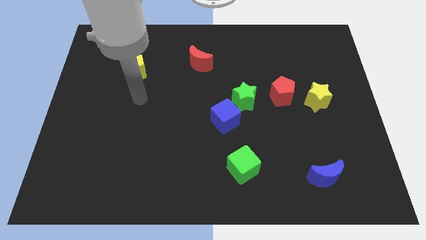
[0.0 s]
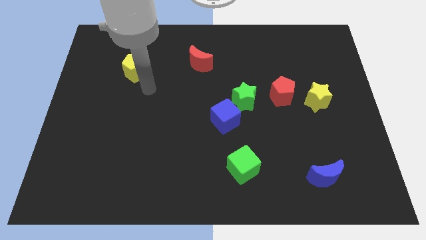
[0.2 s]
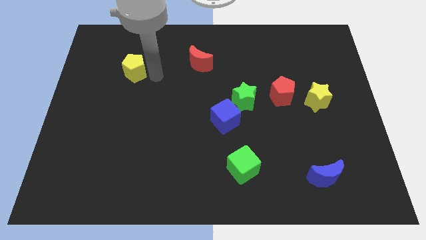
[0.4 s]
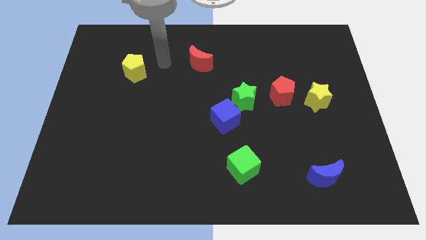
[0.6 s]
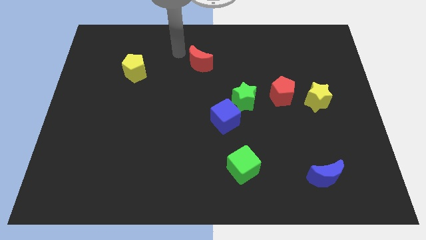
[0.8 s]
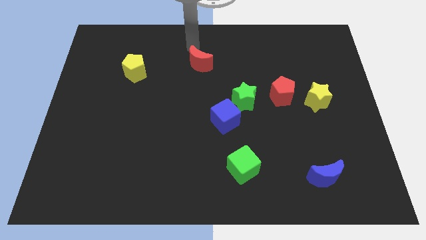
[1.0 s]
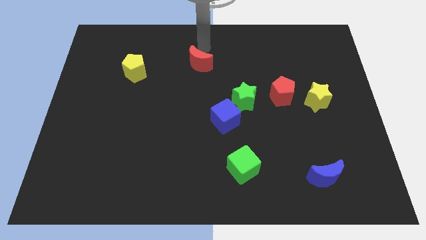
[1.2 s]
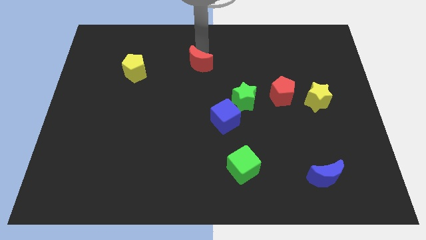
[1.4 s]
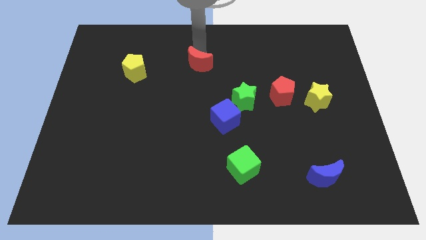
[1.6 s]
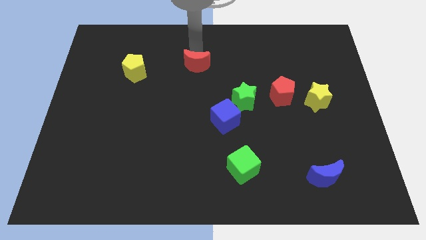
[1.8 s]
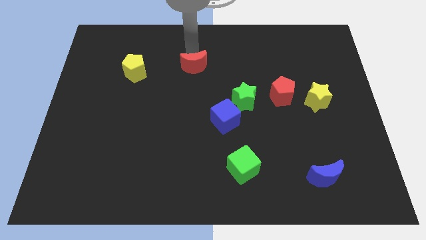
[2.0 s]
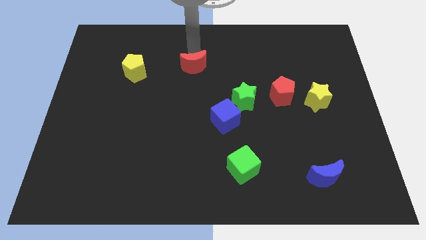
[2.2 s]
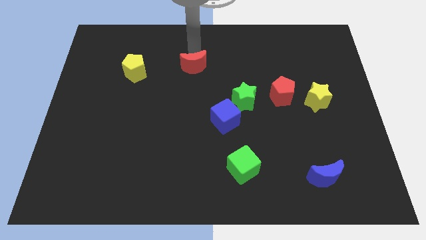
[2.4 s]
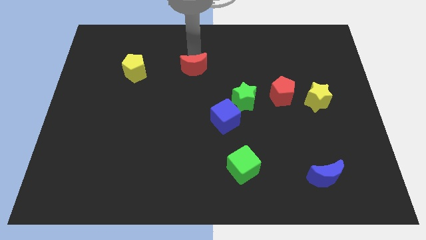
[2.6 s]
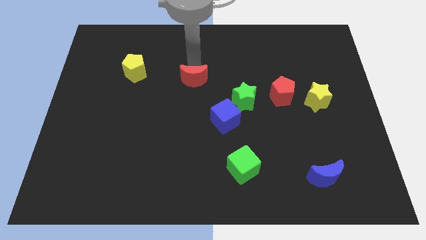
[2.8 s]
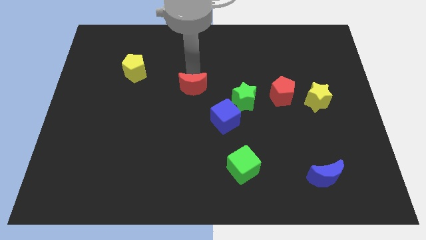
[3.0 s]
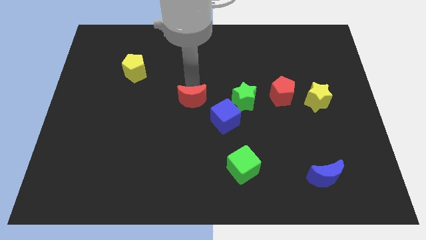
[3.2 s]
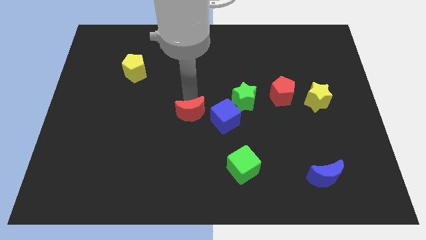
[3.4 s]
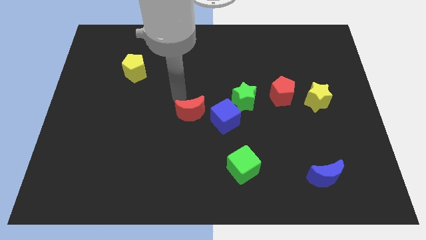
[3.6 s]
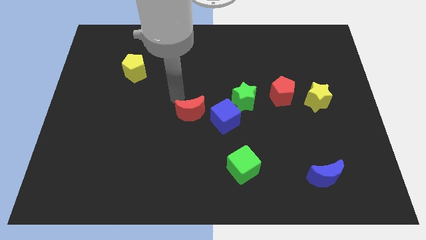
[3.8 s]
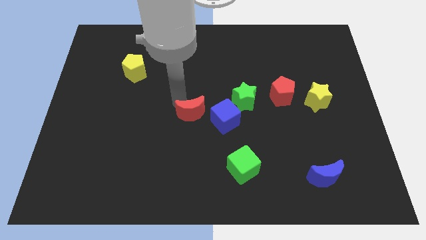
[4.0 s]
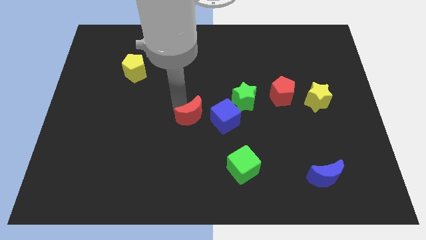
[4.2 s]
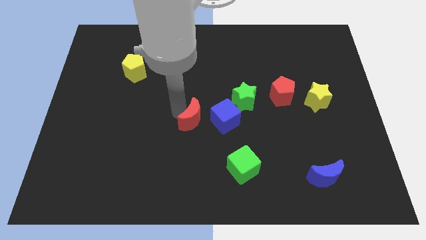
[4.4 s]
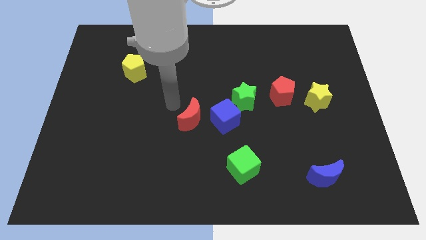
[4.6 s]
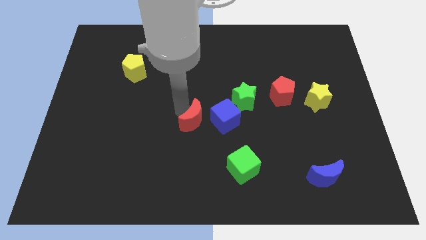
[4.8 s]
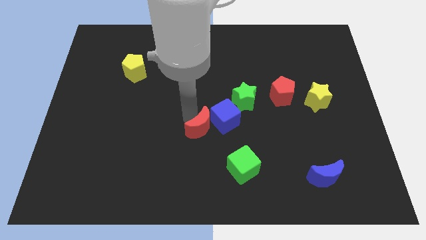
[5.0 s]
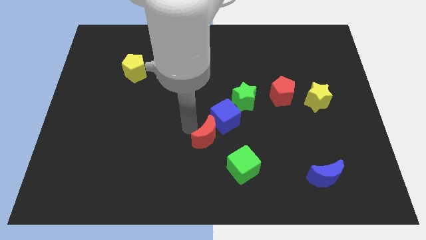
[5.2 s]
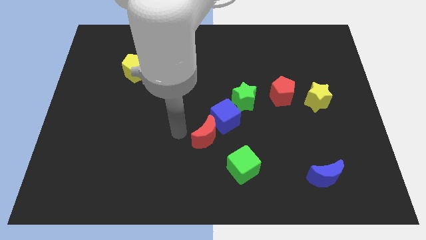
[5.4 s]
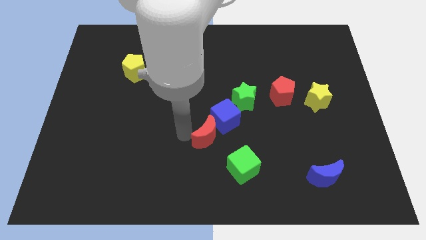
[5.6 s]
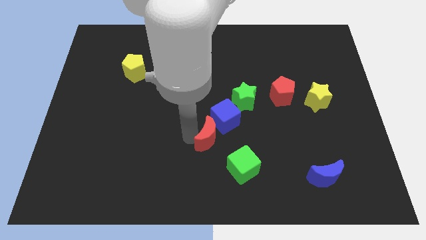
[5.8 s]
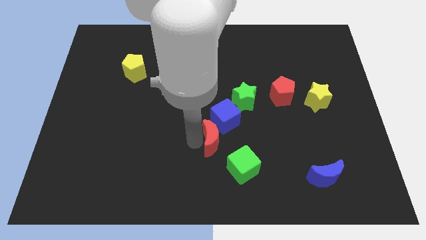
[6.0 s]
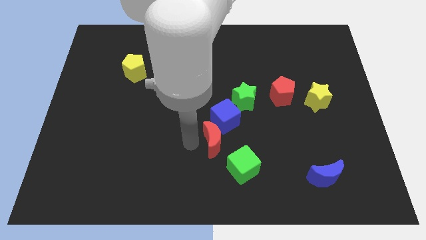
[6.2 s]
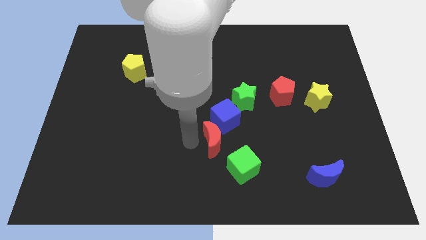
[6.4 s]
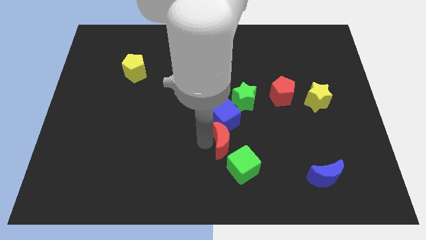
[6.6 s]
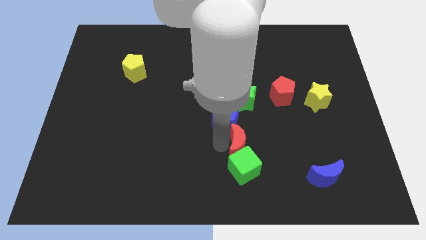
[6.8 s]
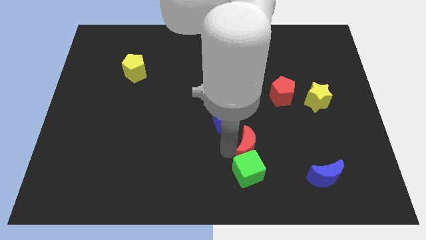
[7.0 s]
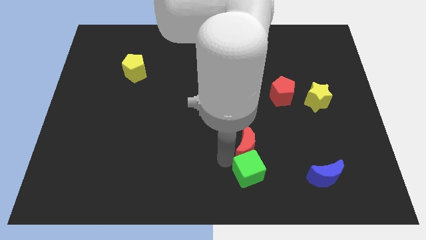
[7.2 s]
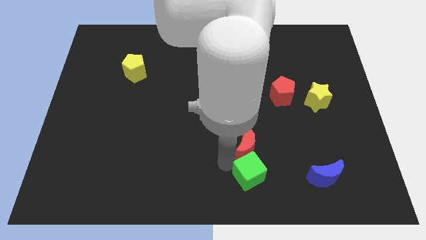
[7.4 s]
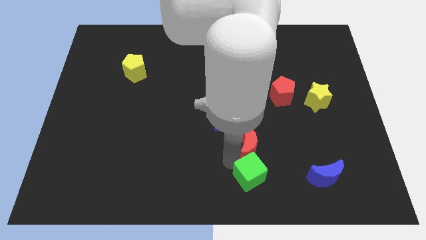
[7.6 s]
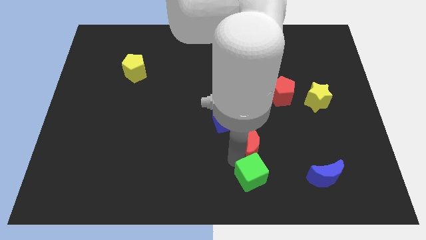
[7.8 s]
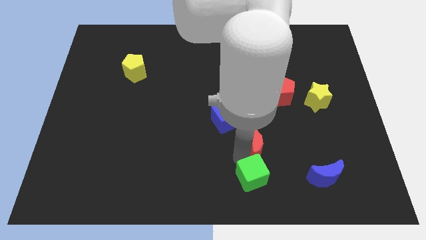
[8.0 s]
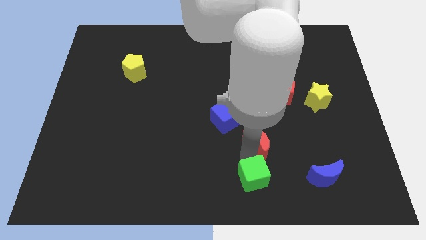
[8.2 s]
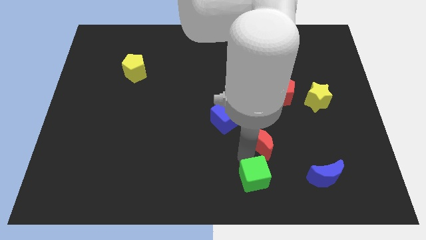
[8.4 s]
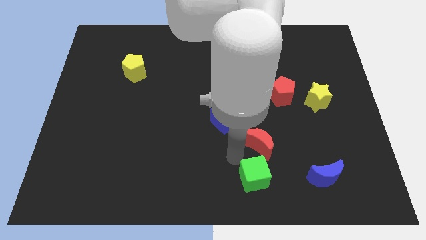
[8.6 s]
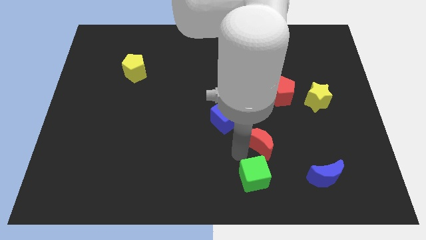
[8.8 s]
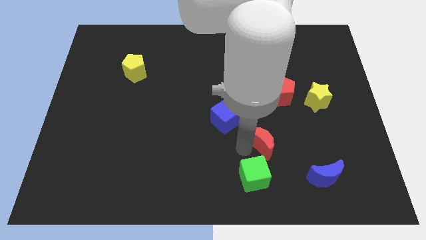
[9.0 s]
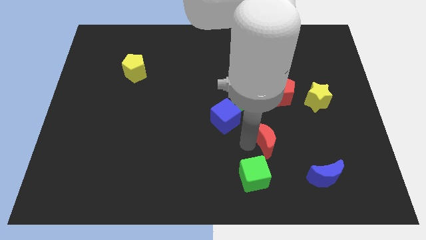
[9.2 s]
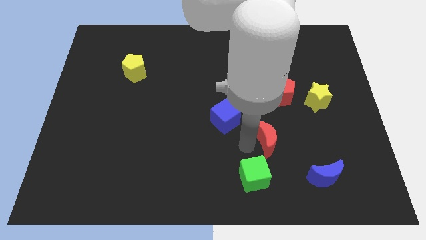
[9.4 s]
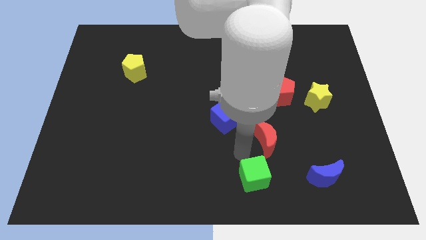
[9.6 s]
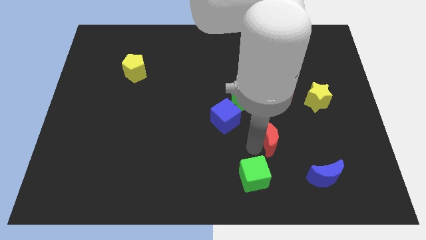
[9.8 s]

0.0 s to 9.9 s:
slide the red moon to the bottom side of the red pentagon

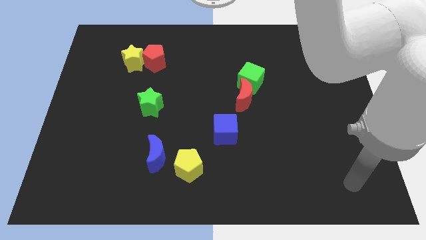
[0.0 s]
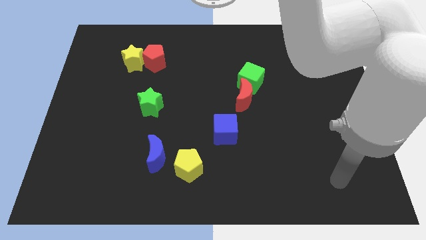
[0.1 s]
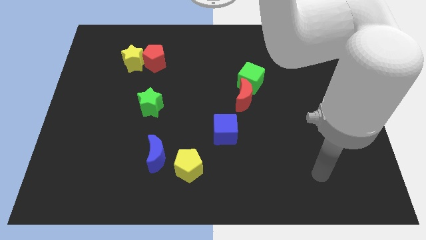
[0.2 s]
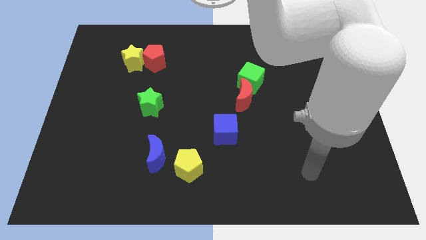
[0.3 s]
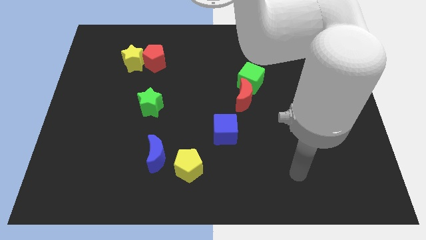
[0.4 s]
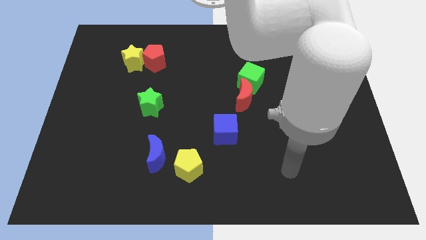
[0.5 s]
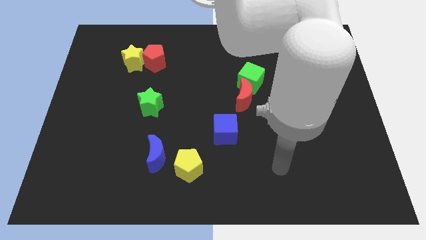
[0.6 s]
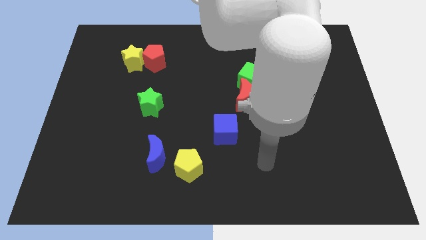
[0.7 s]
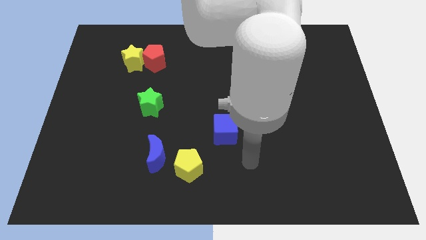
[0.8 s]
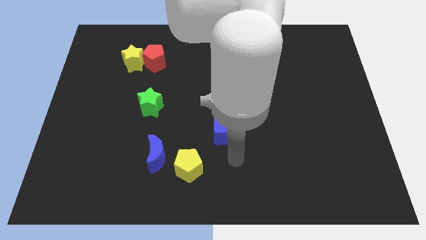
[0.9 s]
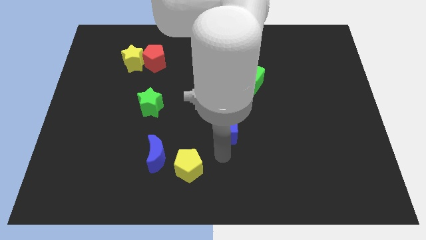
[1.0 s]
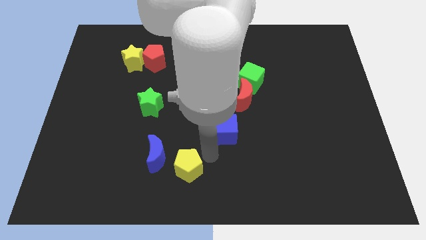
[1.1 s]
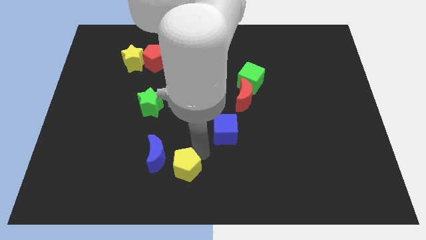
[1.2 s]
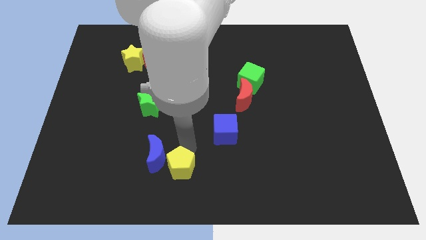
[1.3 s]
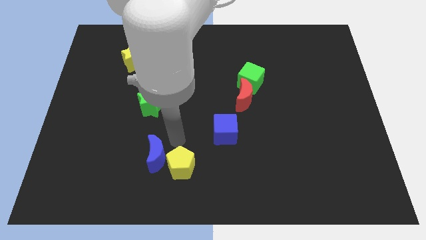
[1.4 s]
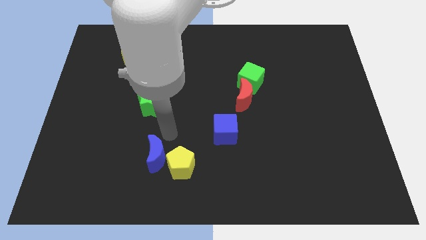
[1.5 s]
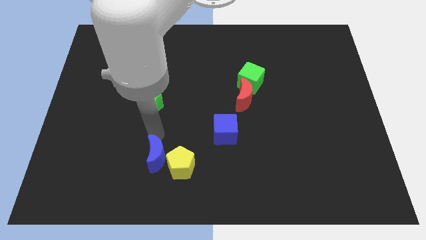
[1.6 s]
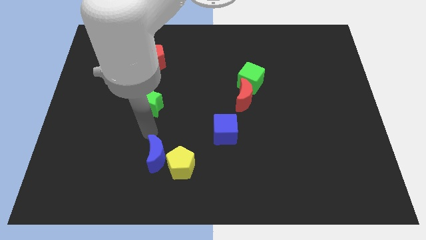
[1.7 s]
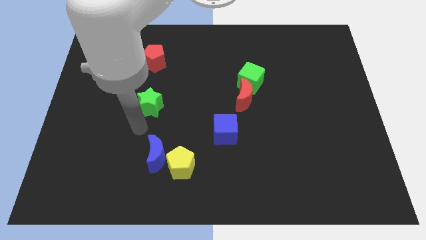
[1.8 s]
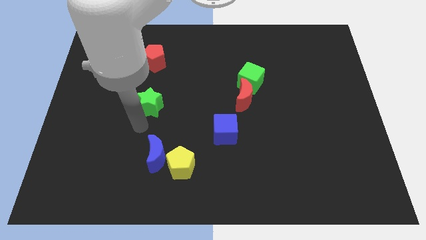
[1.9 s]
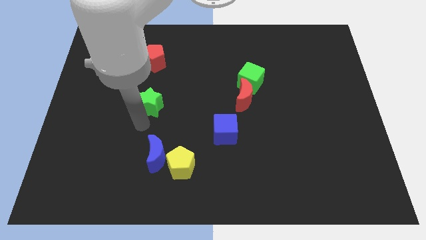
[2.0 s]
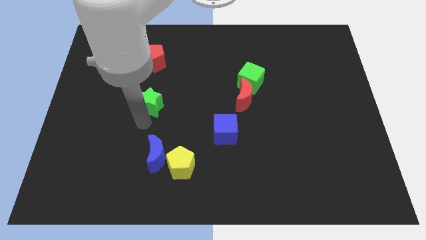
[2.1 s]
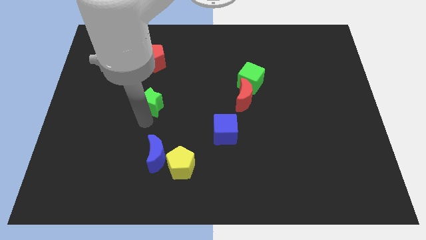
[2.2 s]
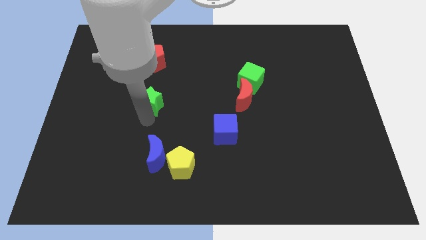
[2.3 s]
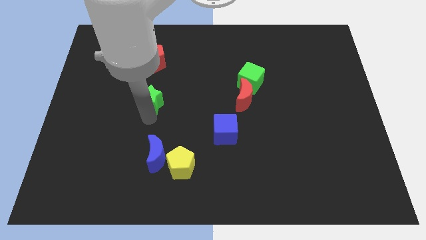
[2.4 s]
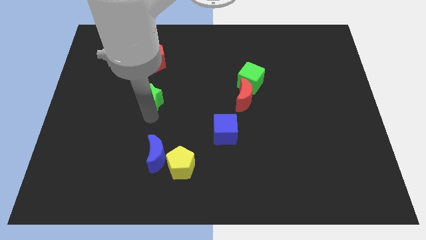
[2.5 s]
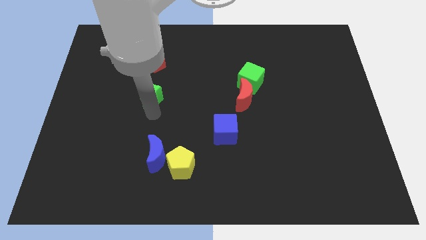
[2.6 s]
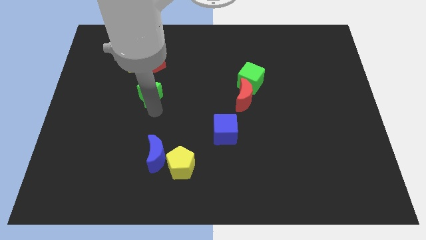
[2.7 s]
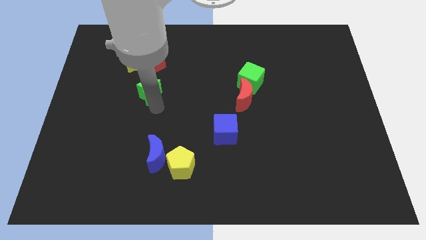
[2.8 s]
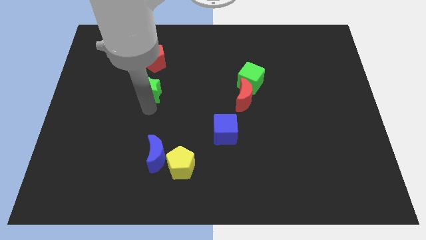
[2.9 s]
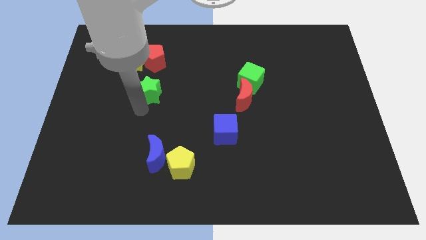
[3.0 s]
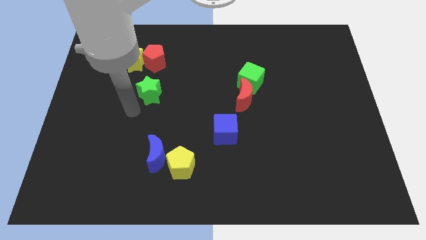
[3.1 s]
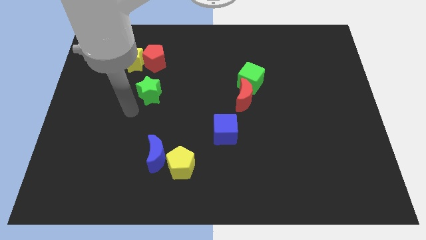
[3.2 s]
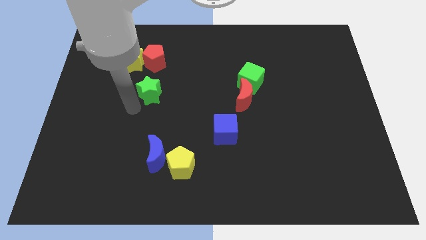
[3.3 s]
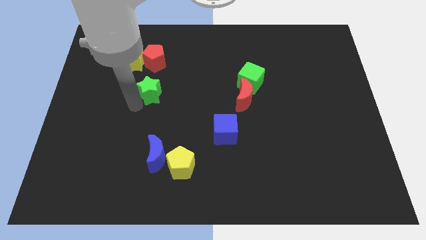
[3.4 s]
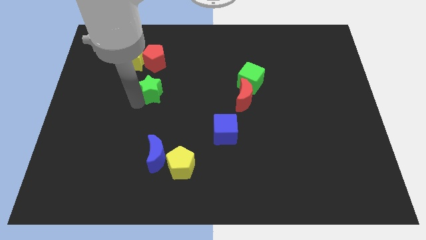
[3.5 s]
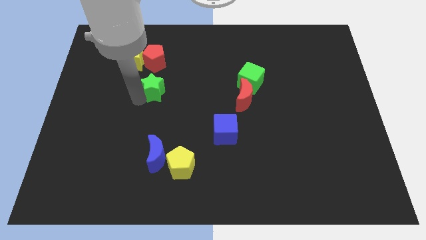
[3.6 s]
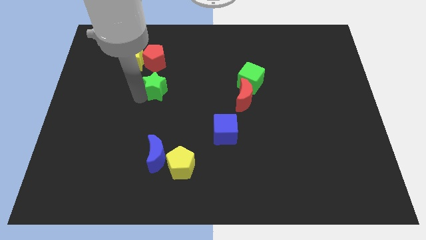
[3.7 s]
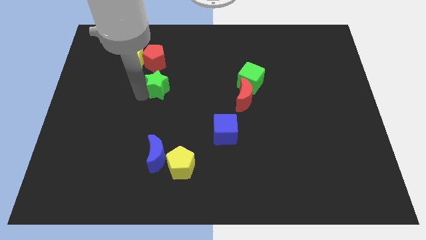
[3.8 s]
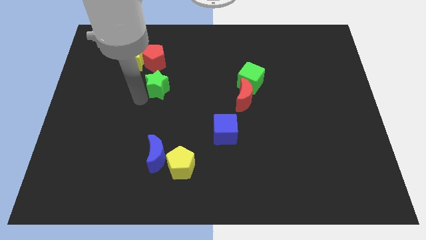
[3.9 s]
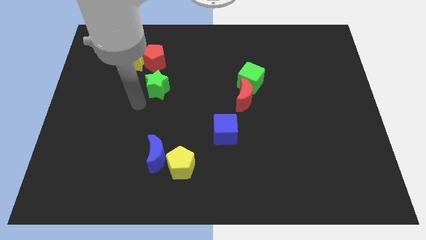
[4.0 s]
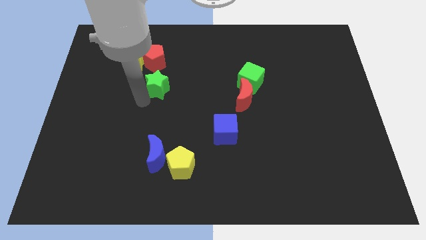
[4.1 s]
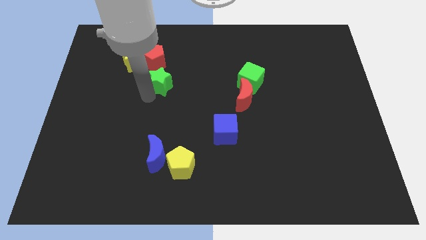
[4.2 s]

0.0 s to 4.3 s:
slide the green star to the bottom right side of the red pentagon
